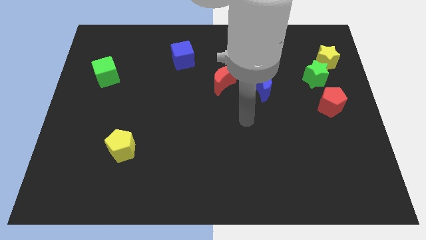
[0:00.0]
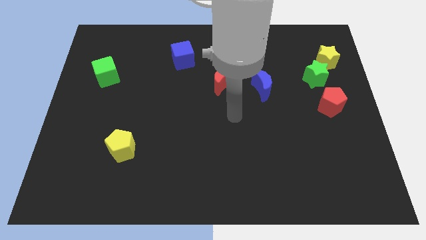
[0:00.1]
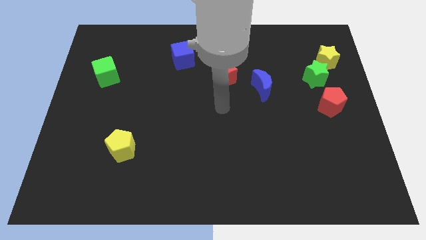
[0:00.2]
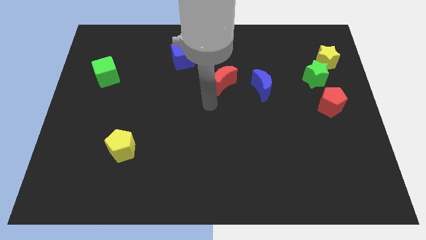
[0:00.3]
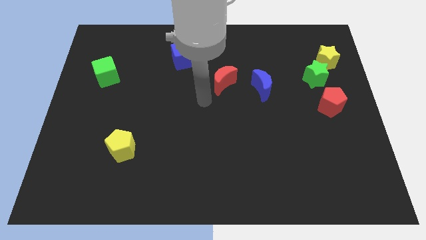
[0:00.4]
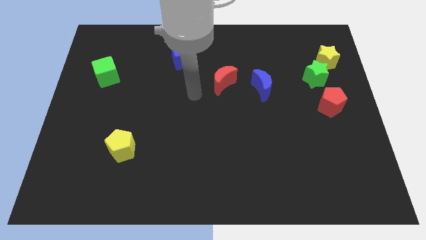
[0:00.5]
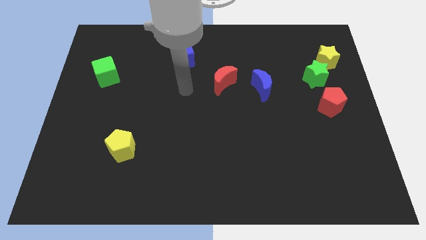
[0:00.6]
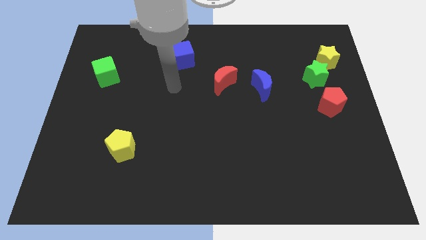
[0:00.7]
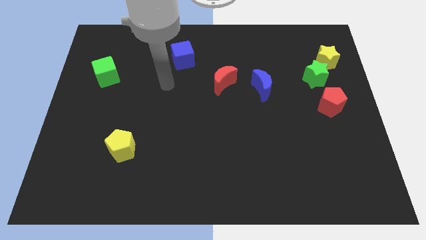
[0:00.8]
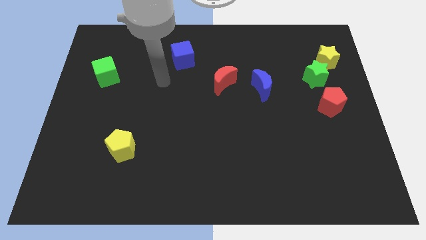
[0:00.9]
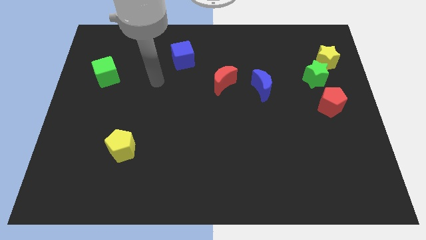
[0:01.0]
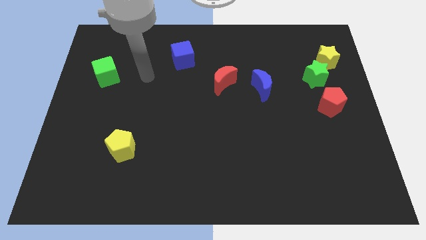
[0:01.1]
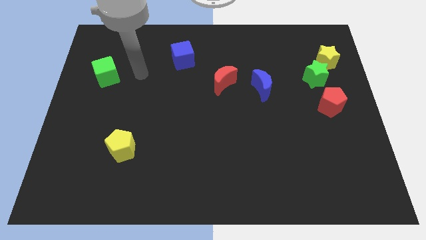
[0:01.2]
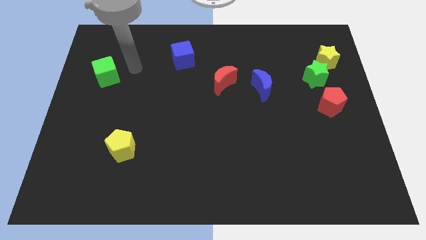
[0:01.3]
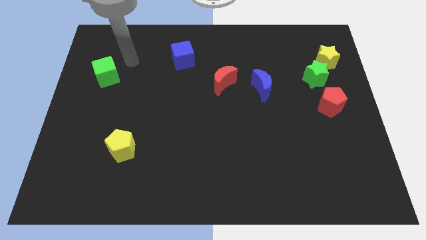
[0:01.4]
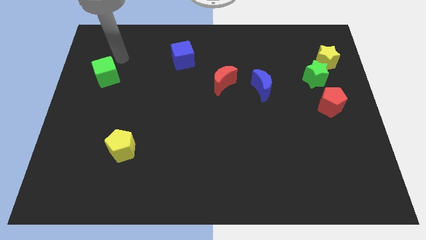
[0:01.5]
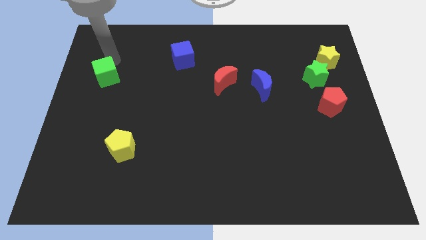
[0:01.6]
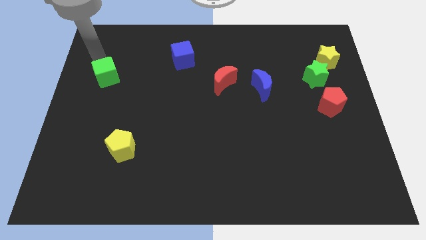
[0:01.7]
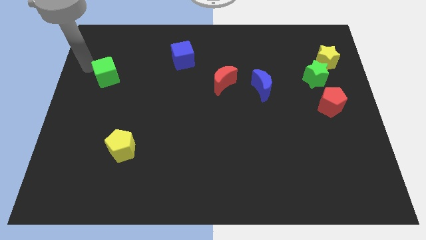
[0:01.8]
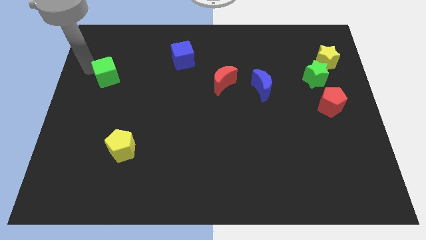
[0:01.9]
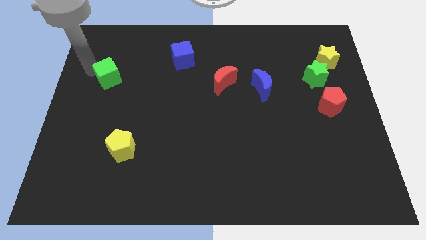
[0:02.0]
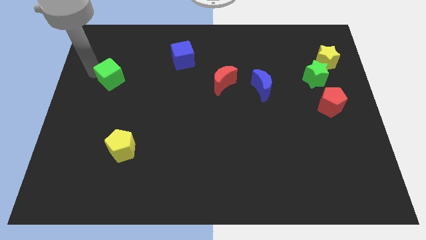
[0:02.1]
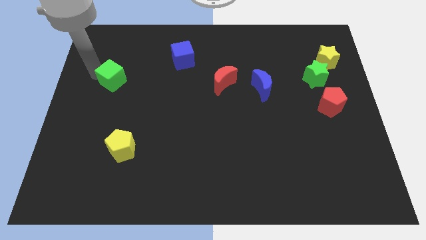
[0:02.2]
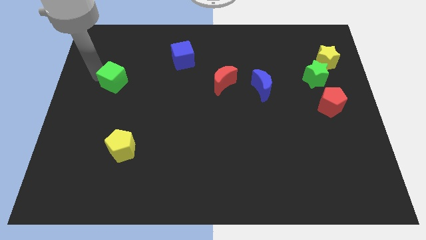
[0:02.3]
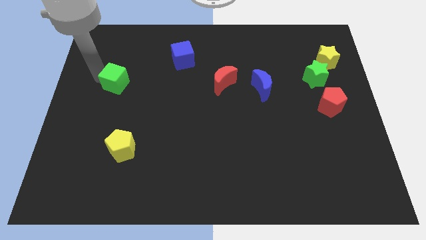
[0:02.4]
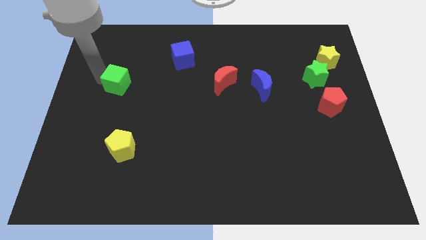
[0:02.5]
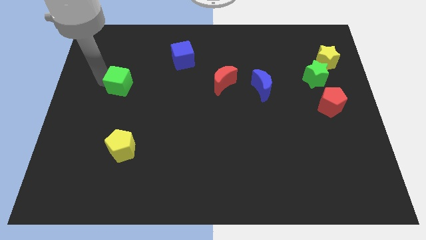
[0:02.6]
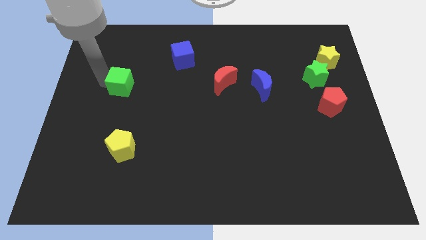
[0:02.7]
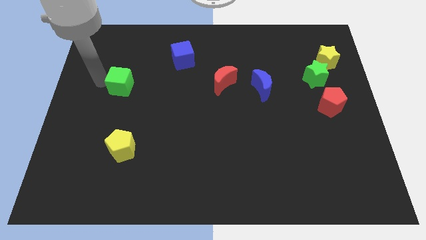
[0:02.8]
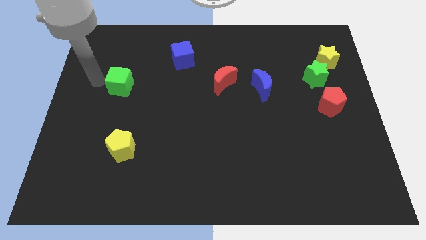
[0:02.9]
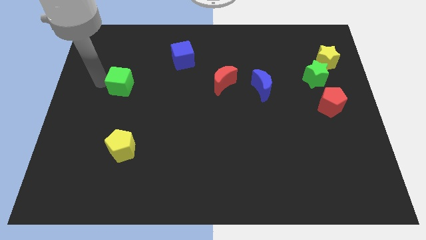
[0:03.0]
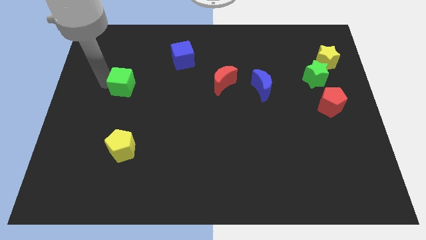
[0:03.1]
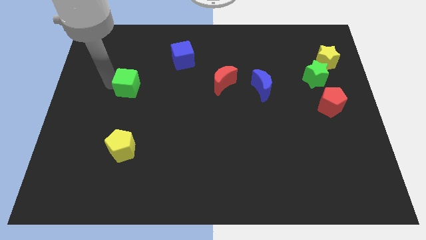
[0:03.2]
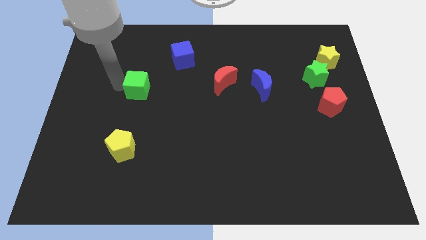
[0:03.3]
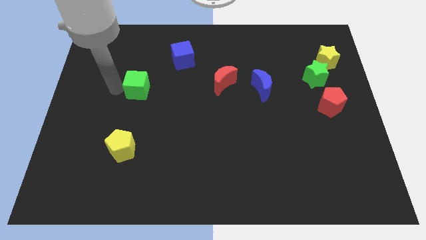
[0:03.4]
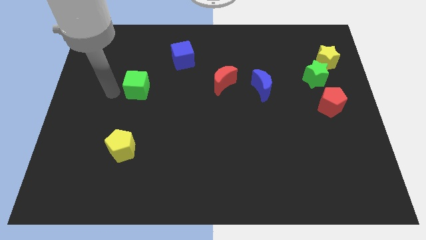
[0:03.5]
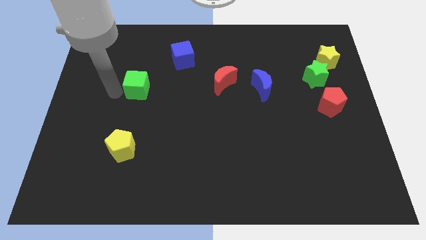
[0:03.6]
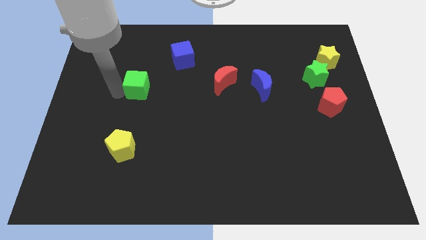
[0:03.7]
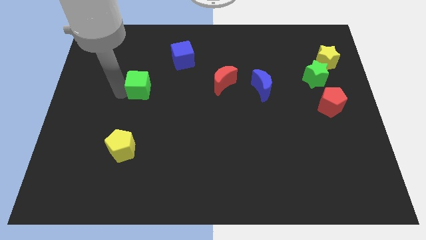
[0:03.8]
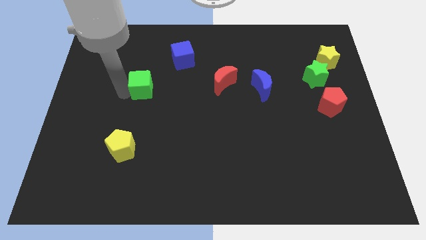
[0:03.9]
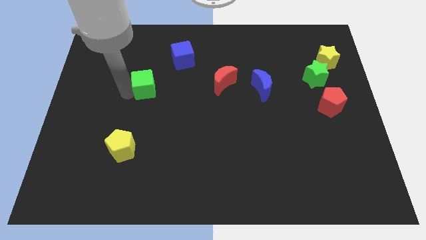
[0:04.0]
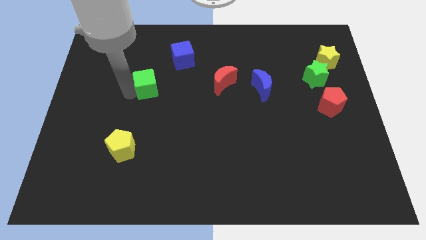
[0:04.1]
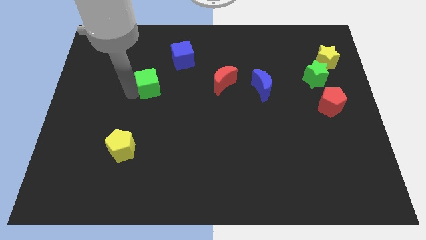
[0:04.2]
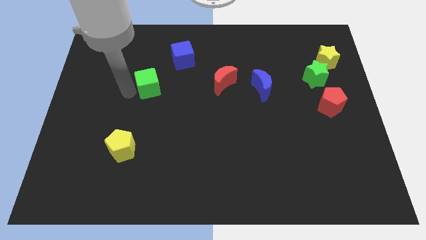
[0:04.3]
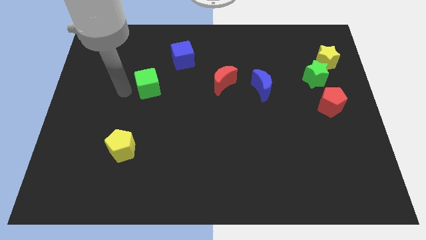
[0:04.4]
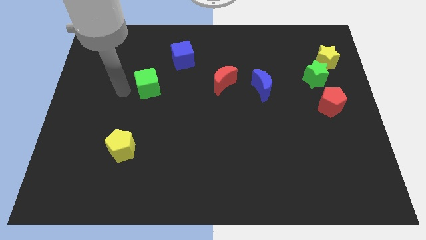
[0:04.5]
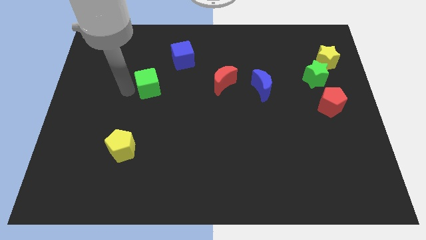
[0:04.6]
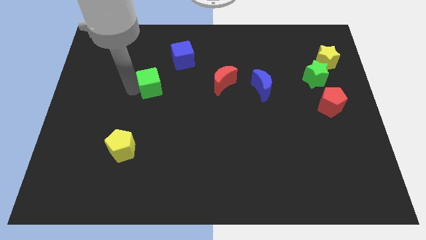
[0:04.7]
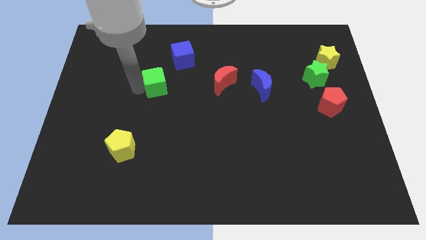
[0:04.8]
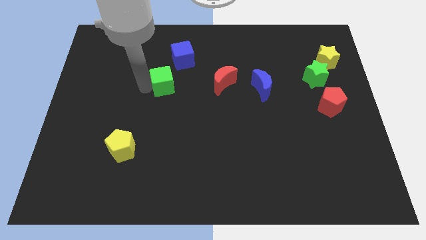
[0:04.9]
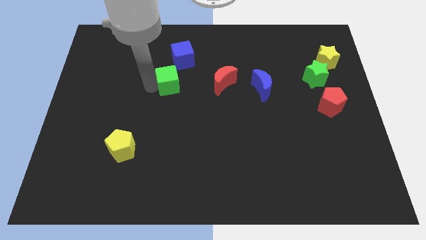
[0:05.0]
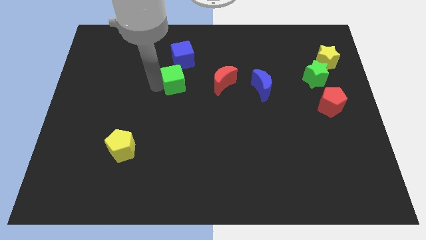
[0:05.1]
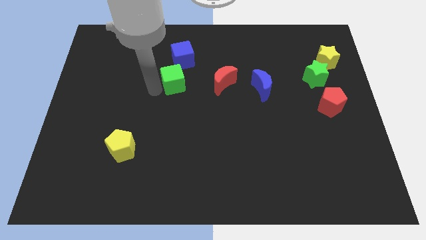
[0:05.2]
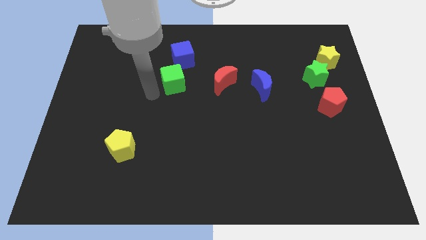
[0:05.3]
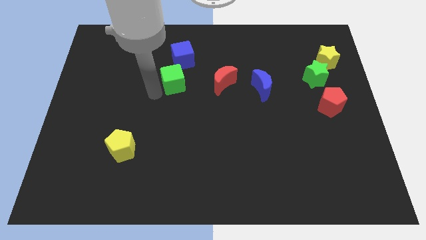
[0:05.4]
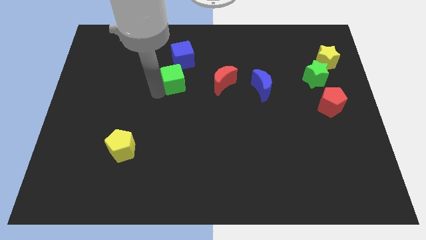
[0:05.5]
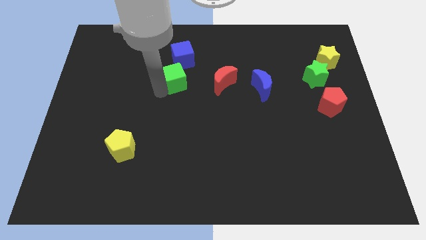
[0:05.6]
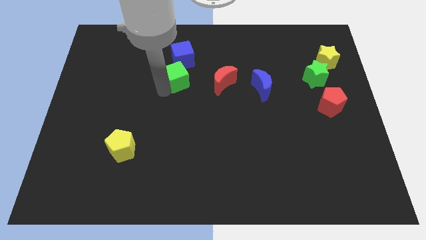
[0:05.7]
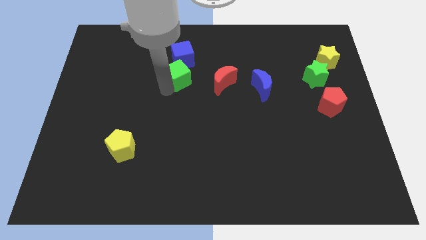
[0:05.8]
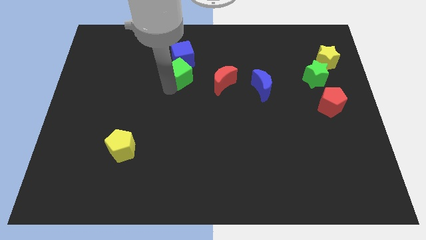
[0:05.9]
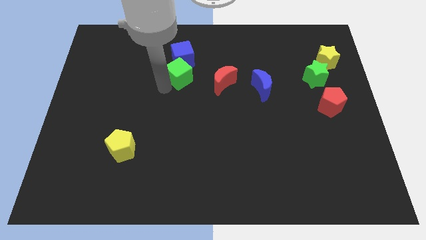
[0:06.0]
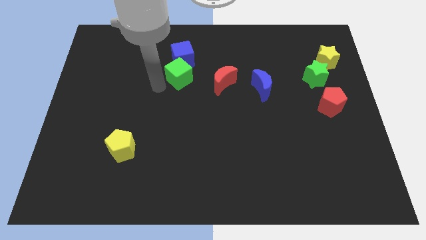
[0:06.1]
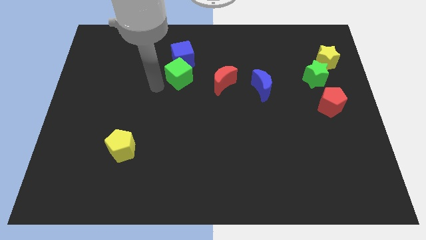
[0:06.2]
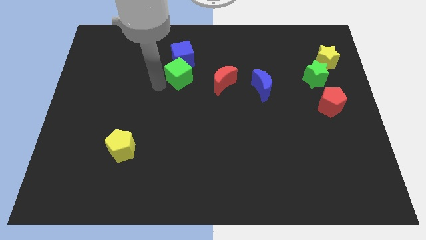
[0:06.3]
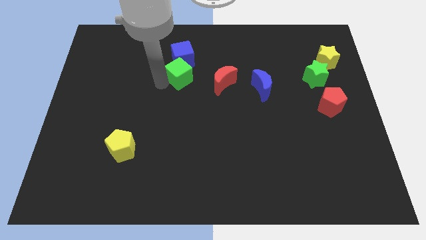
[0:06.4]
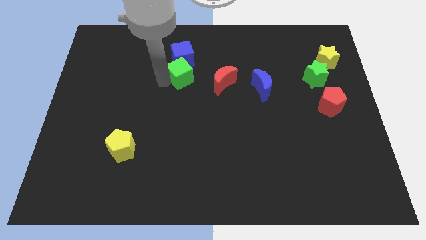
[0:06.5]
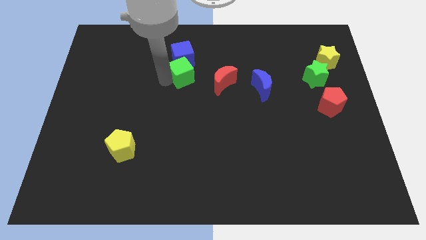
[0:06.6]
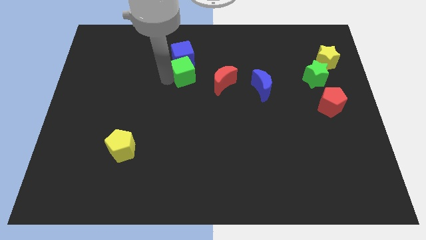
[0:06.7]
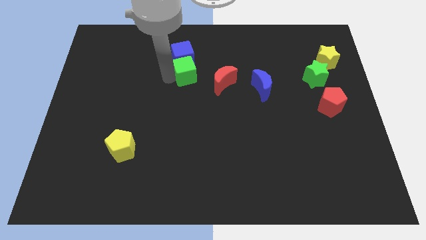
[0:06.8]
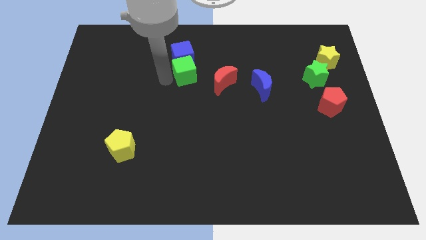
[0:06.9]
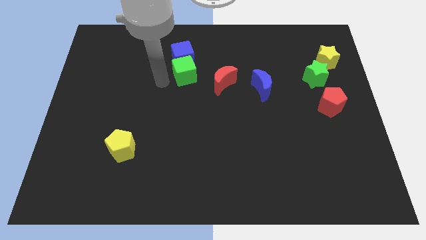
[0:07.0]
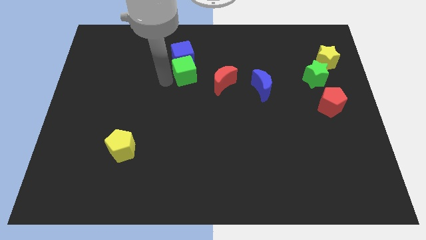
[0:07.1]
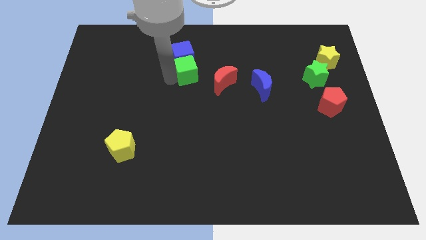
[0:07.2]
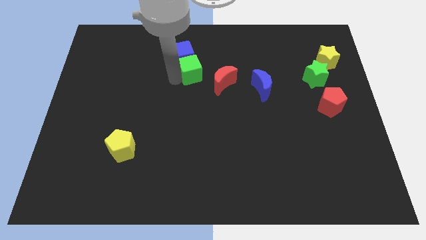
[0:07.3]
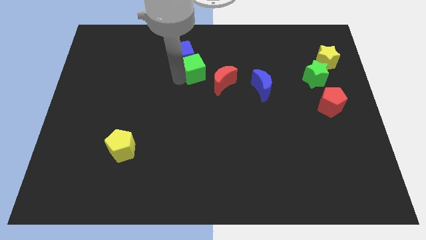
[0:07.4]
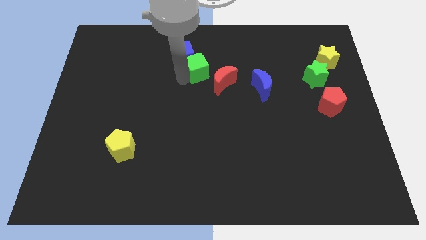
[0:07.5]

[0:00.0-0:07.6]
slide the green cube right of the blue cube
